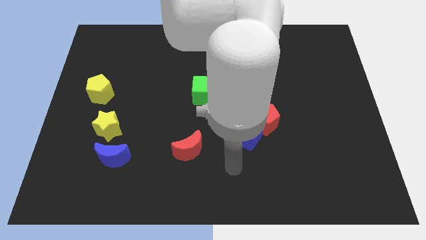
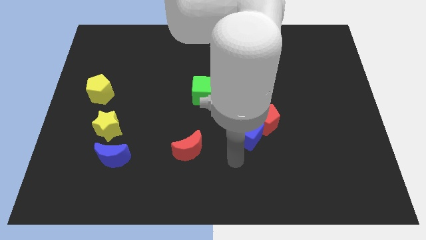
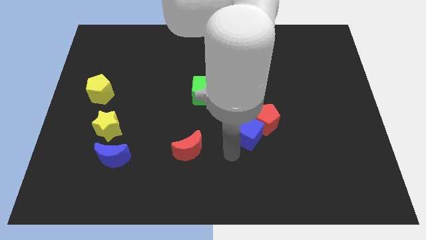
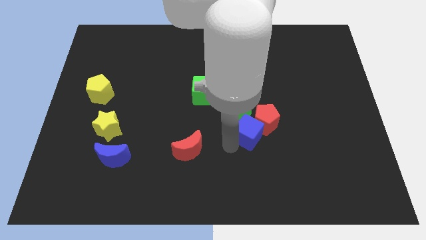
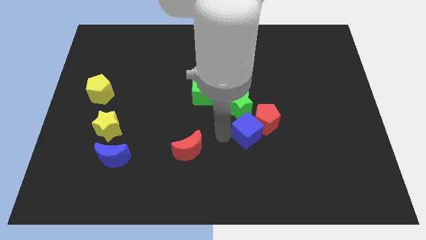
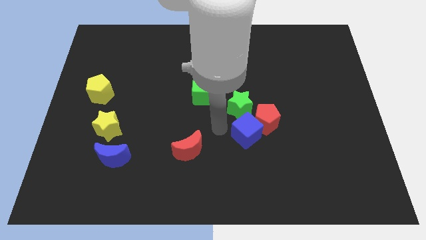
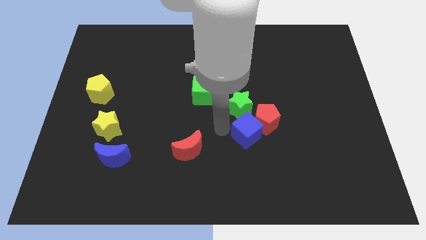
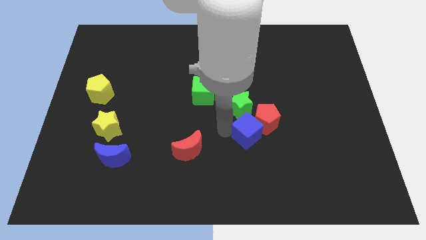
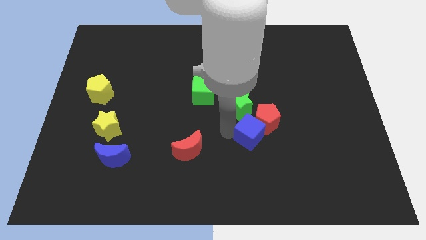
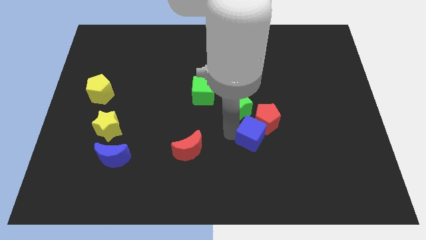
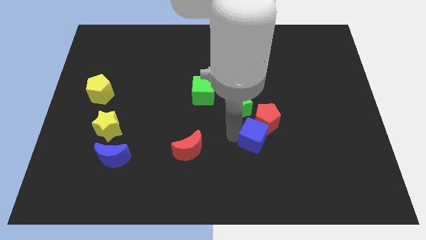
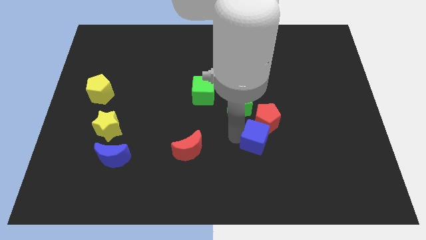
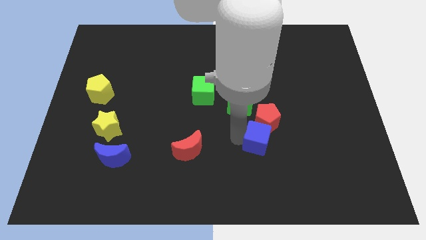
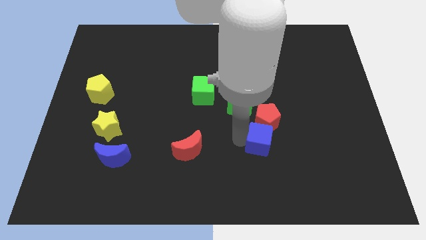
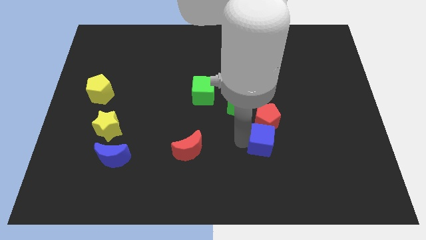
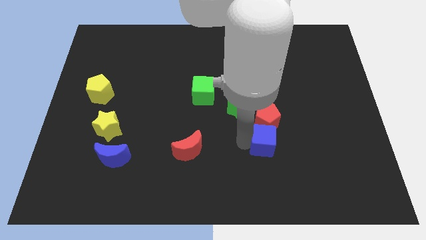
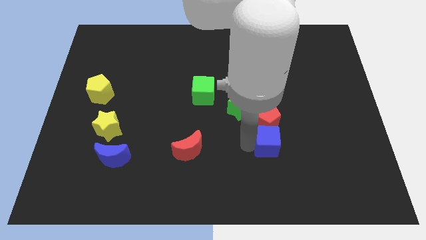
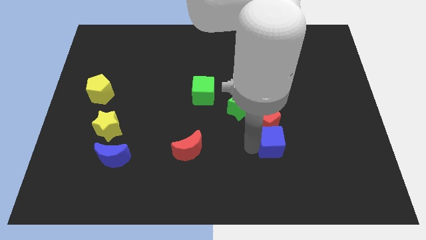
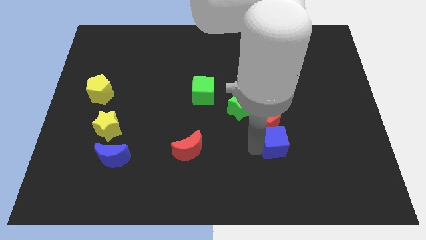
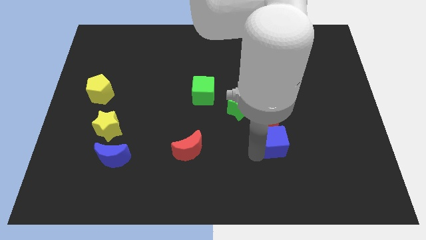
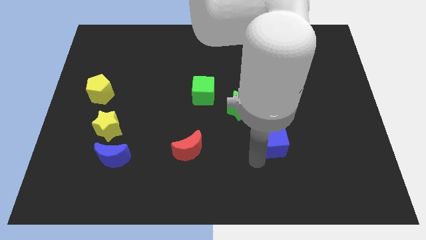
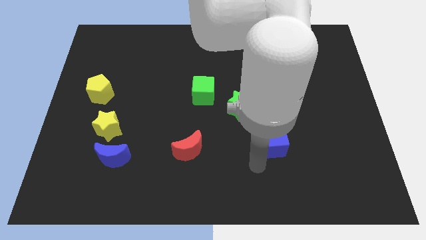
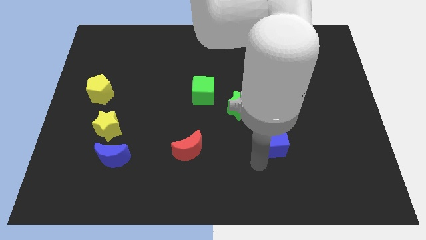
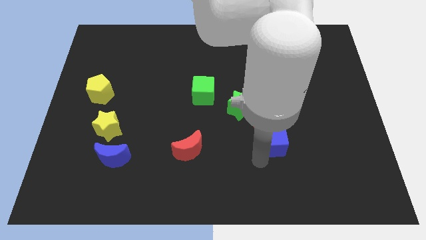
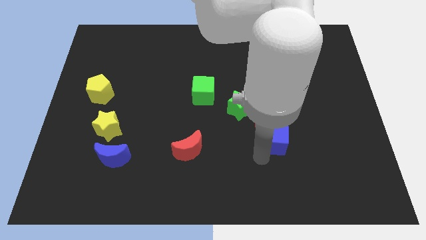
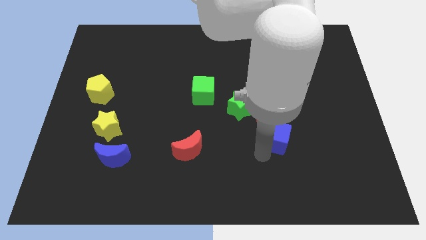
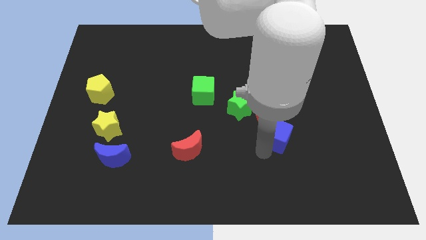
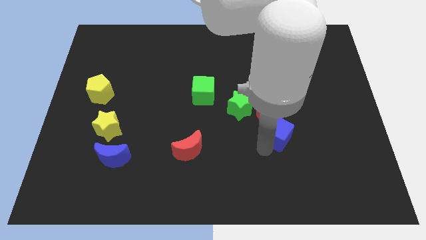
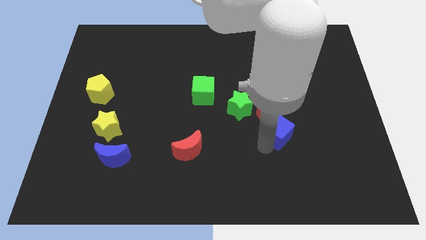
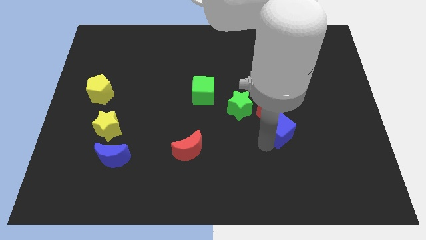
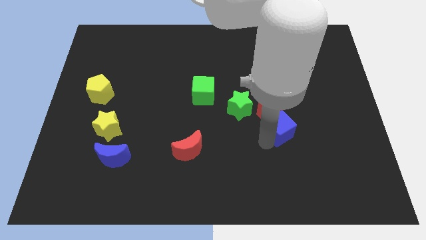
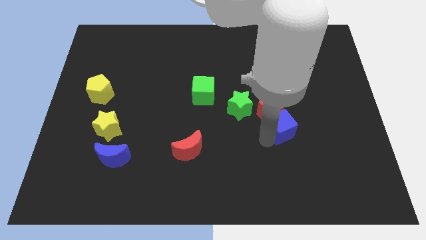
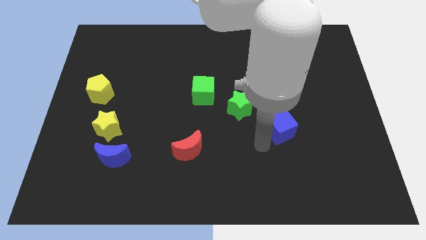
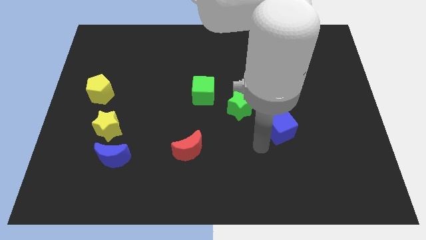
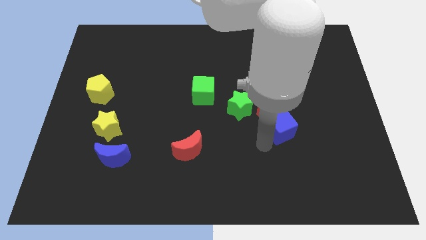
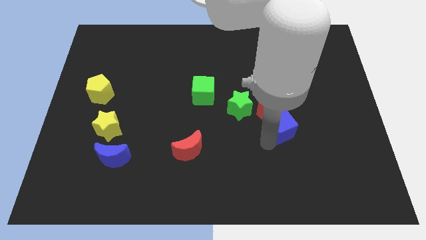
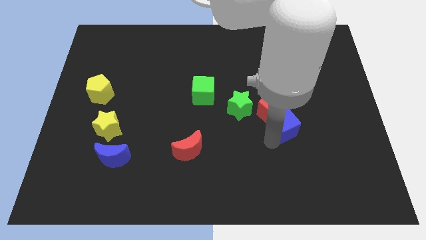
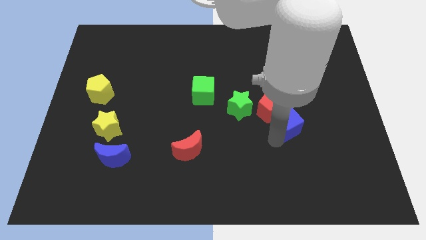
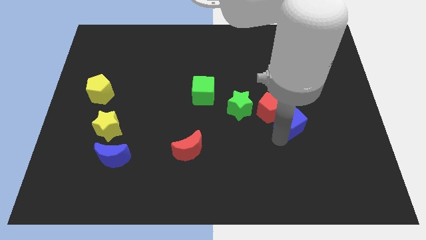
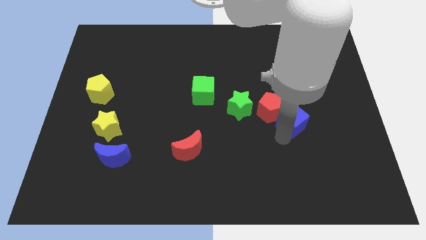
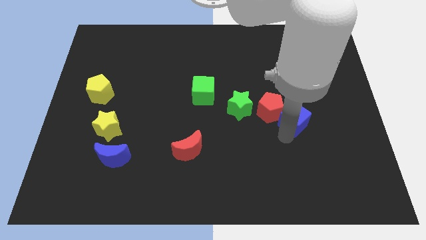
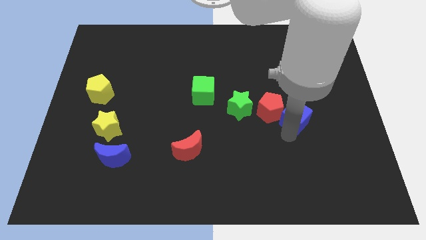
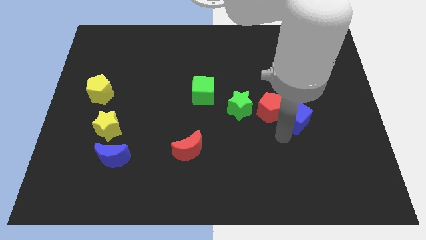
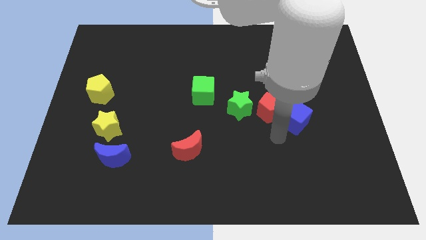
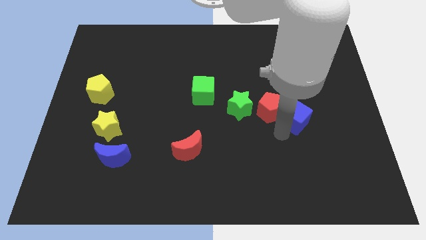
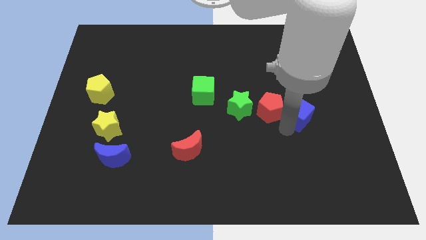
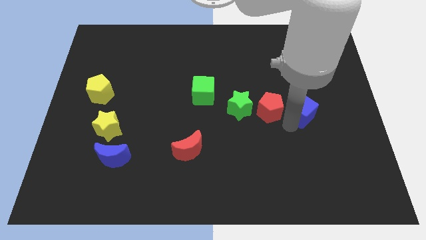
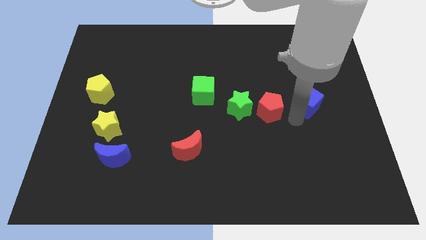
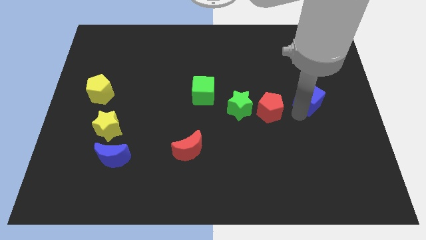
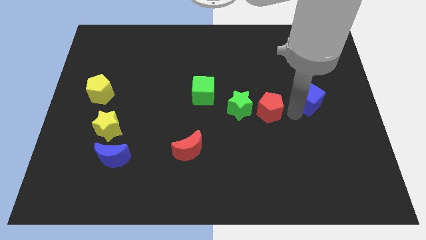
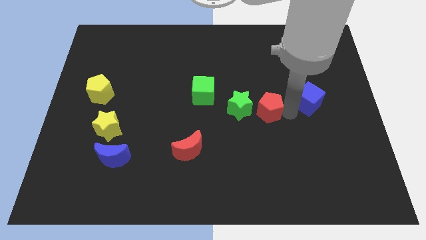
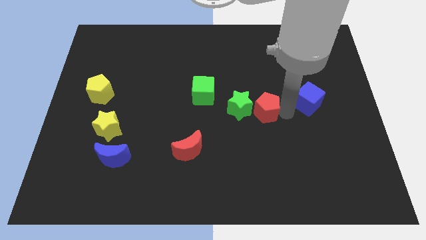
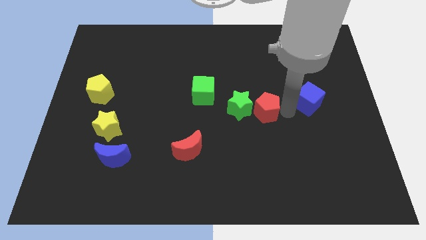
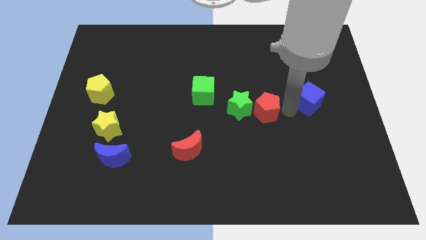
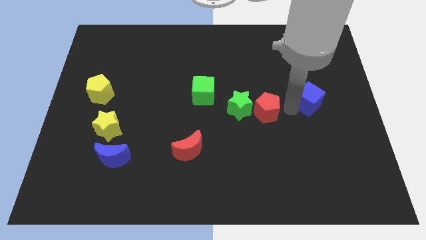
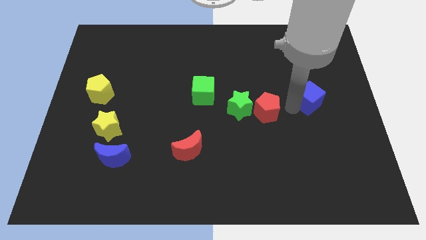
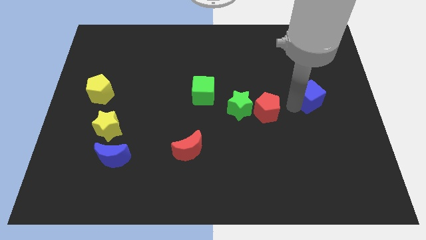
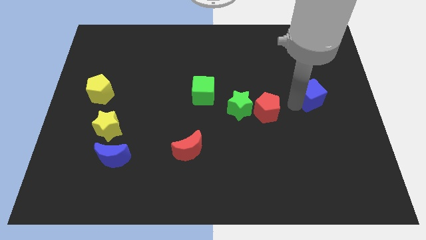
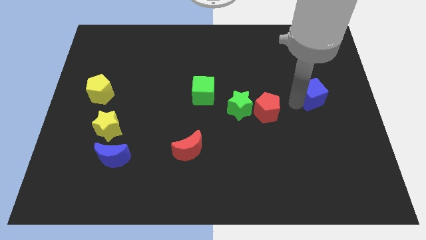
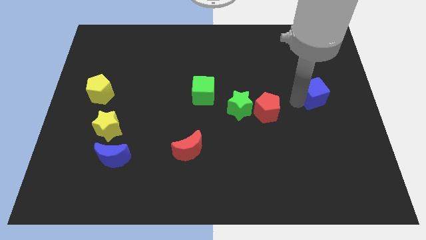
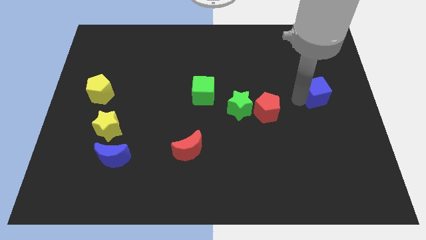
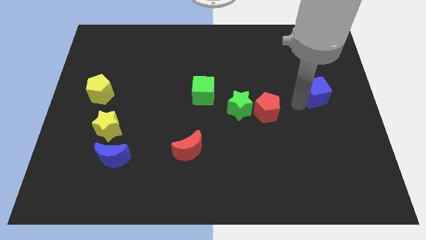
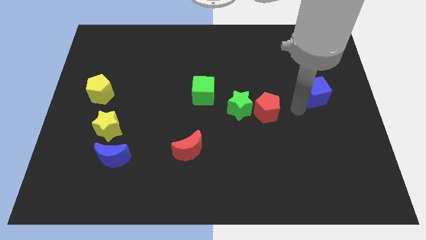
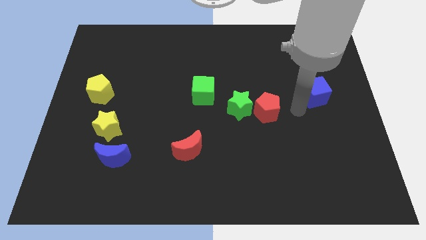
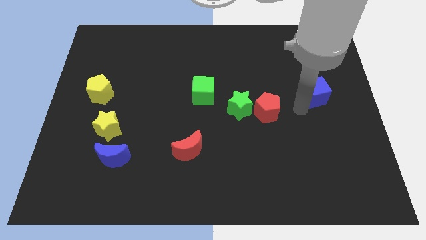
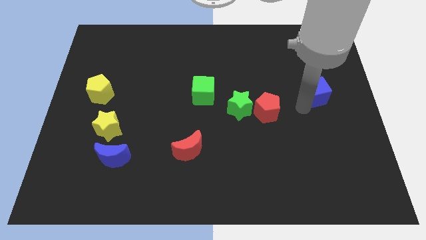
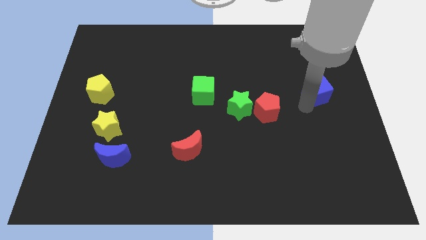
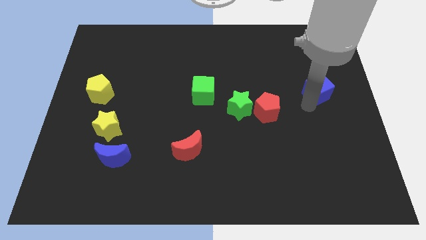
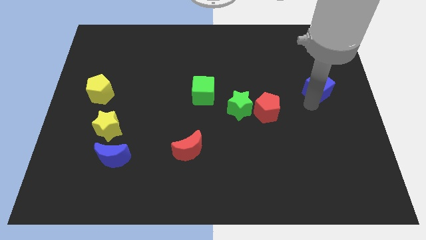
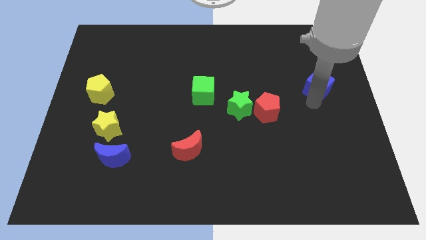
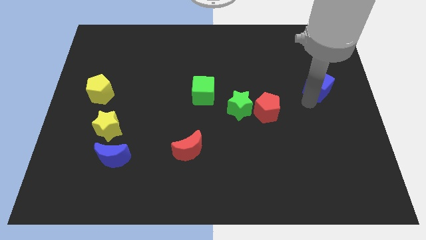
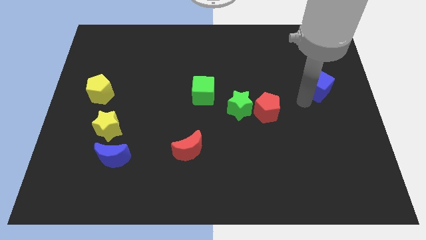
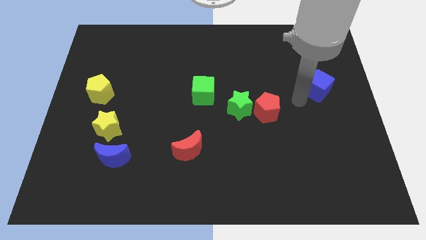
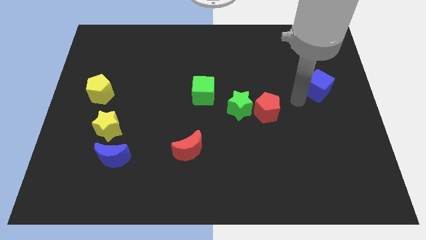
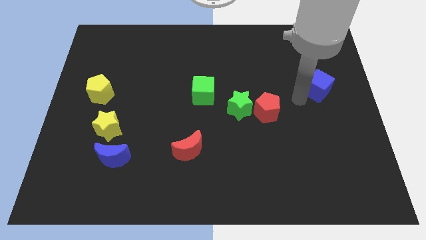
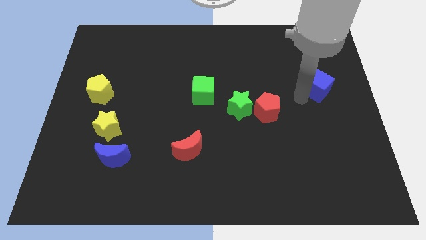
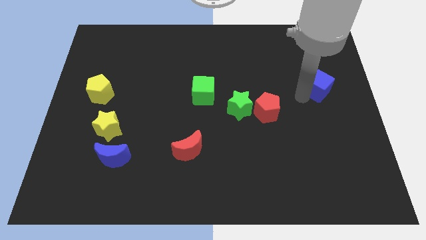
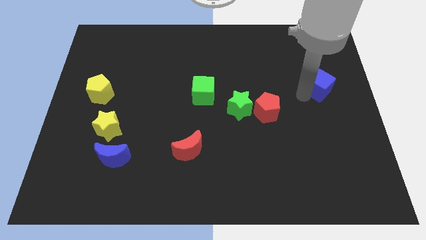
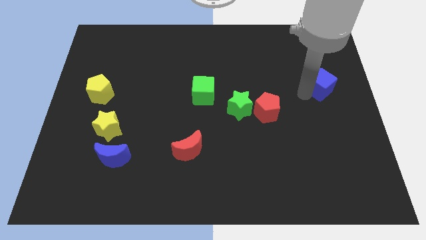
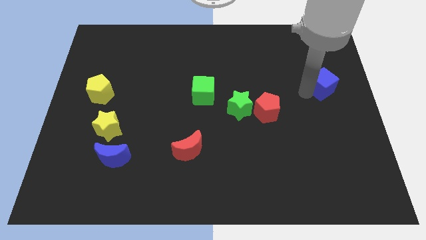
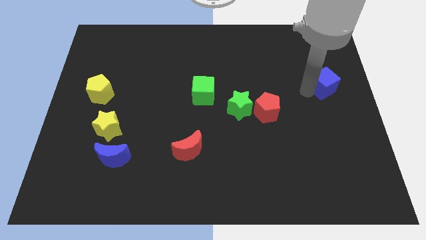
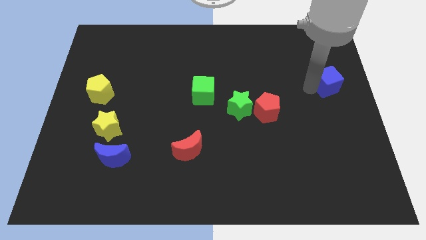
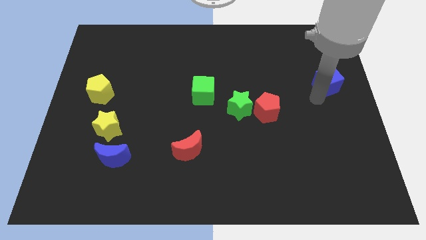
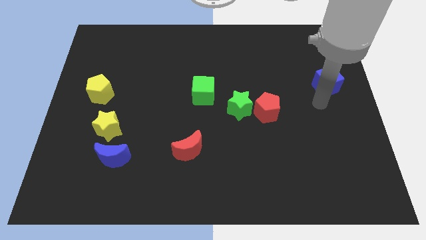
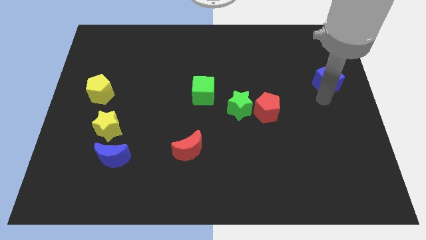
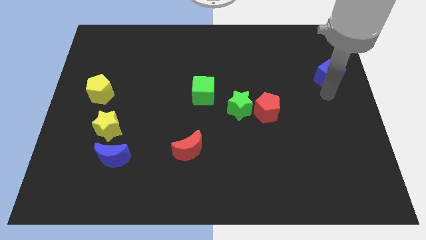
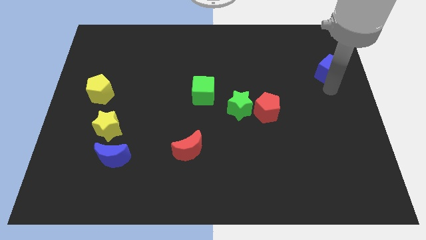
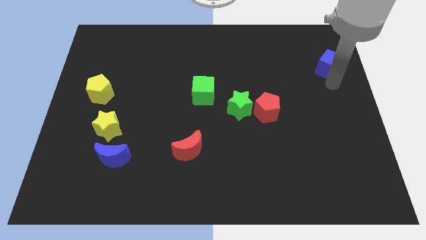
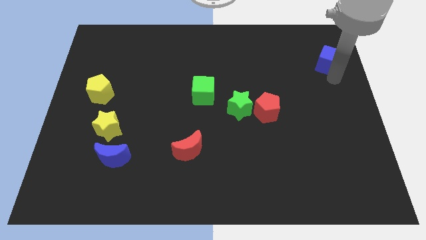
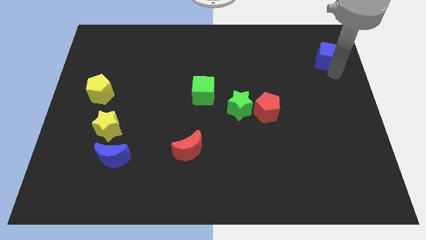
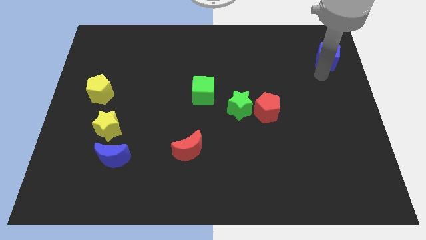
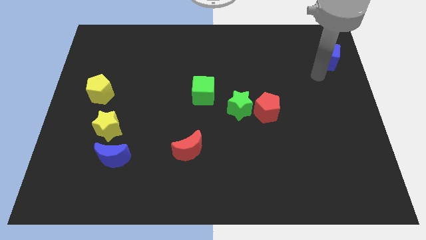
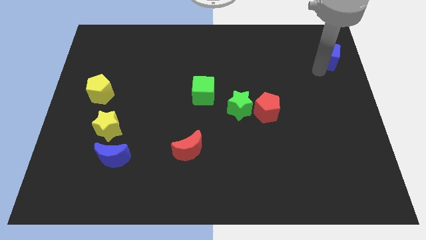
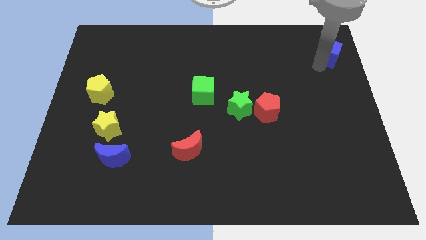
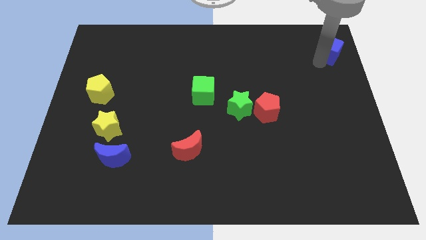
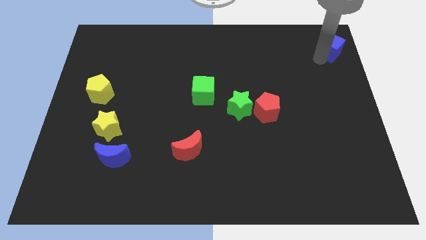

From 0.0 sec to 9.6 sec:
move the blue cube to the top right of the board
